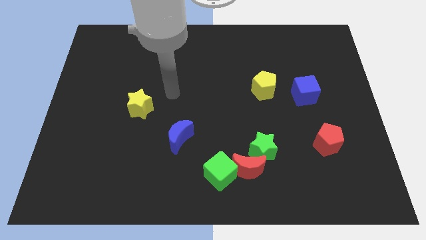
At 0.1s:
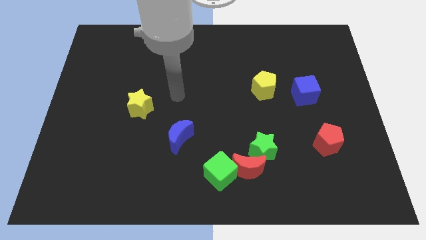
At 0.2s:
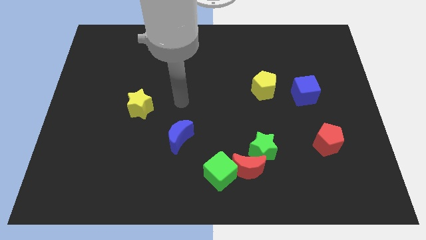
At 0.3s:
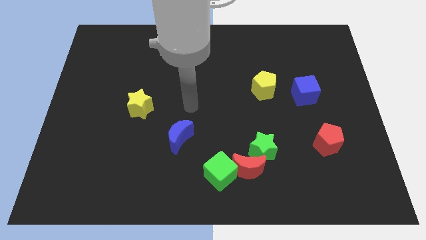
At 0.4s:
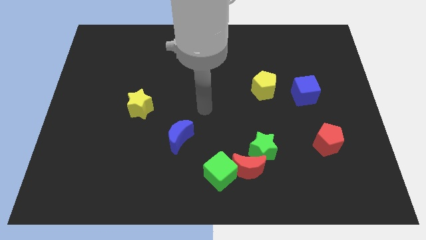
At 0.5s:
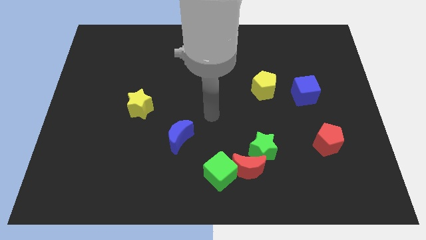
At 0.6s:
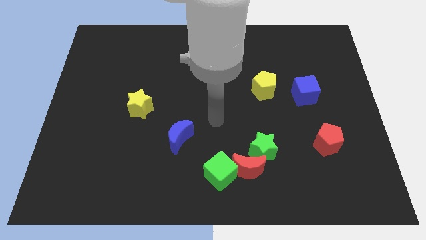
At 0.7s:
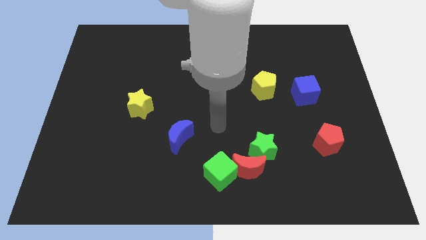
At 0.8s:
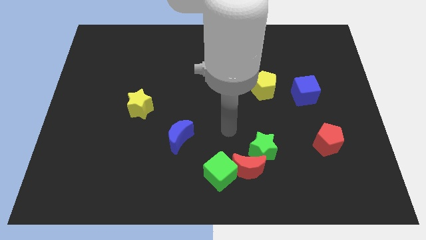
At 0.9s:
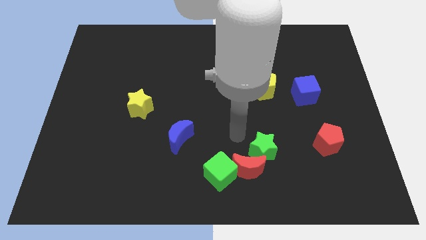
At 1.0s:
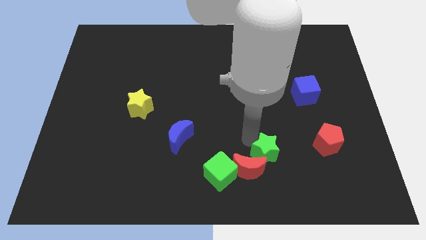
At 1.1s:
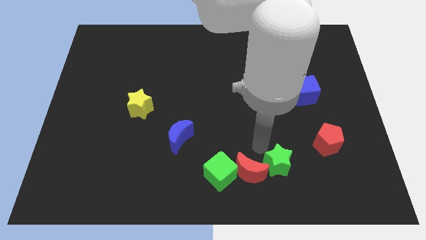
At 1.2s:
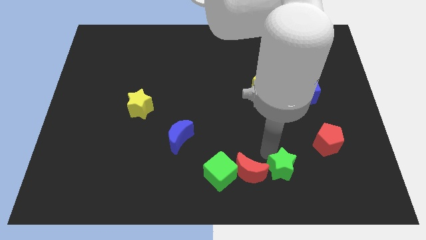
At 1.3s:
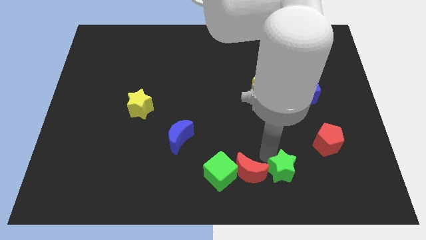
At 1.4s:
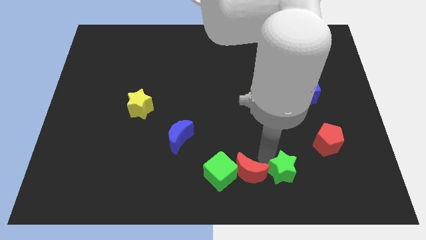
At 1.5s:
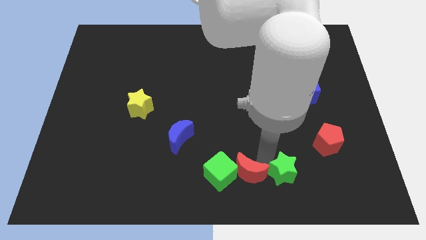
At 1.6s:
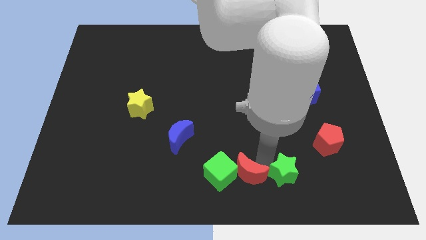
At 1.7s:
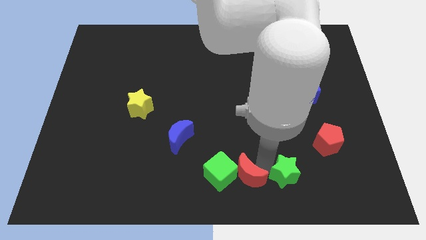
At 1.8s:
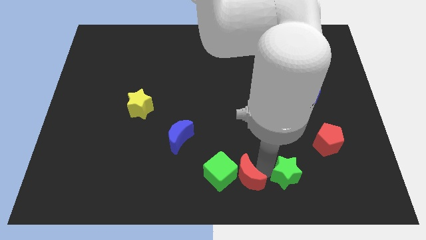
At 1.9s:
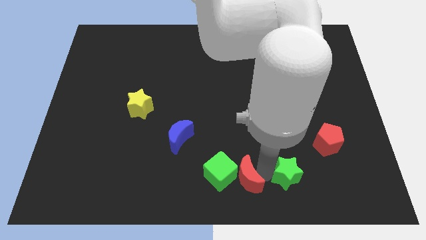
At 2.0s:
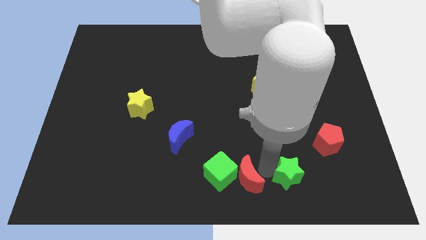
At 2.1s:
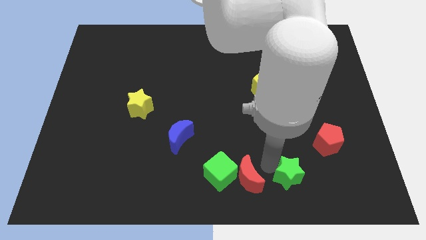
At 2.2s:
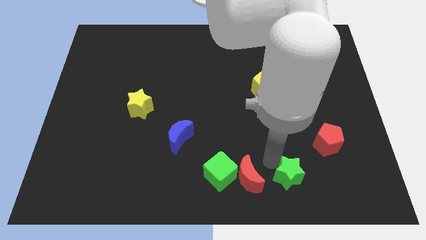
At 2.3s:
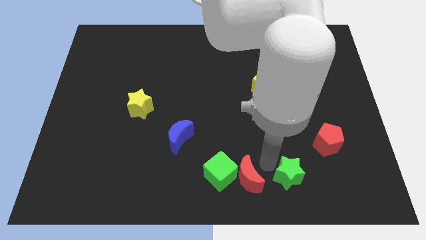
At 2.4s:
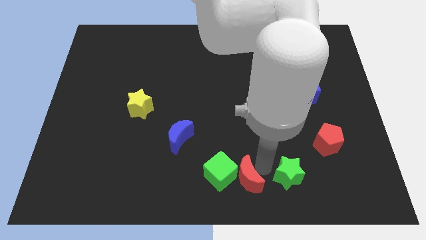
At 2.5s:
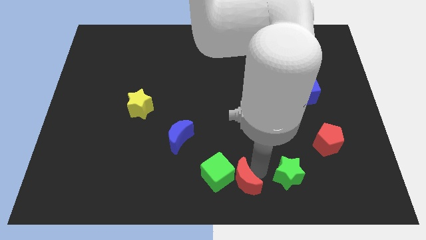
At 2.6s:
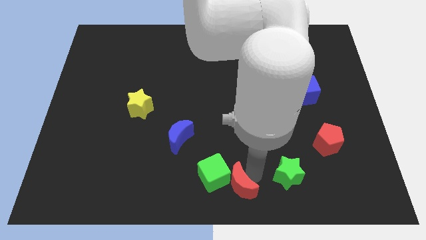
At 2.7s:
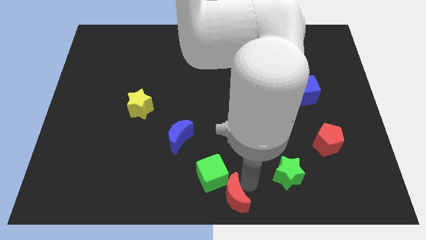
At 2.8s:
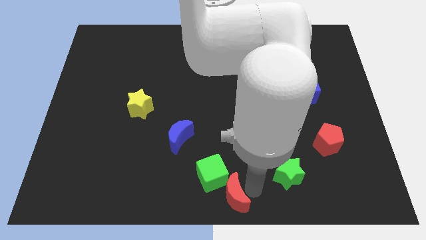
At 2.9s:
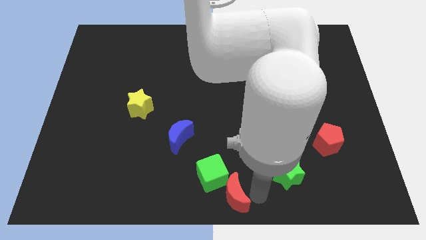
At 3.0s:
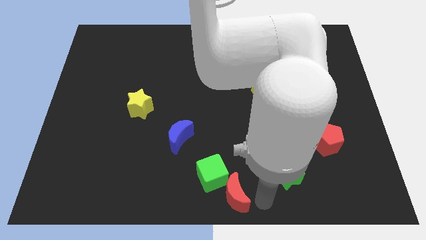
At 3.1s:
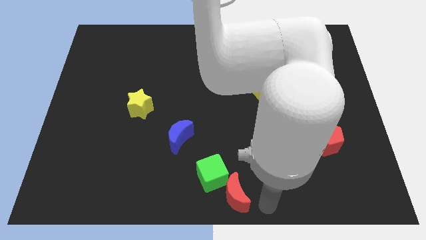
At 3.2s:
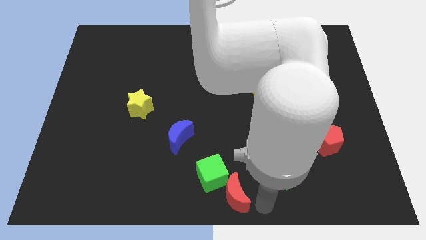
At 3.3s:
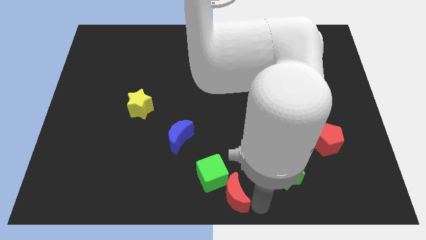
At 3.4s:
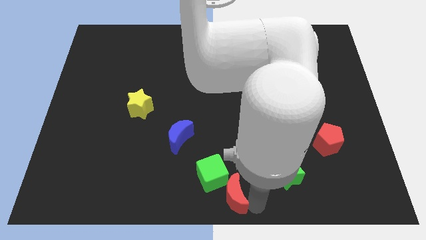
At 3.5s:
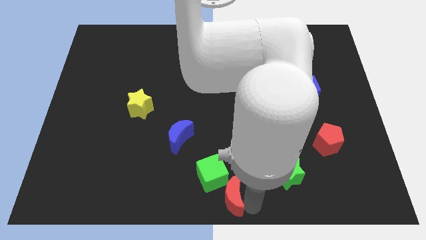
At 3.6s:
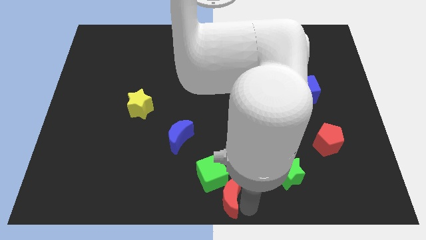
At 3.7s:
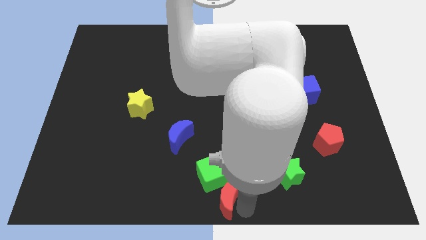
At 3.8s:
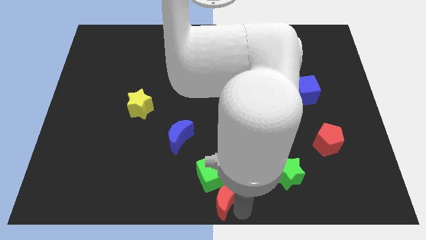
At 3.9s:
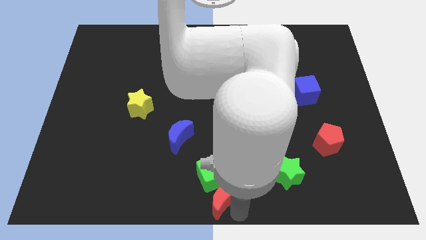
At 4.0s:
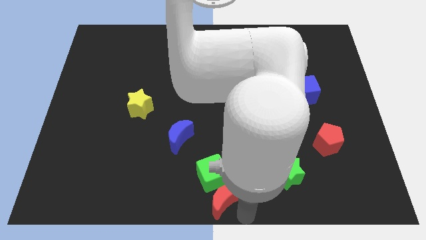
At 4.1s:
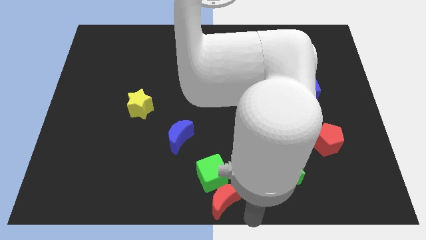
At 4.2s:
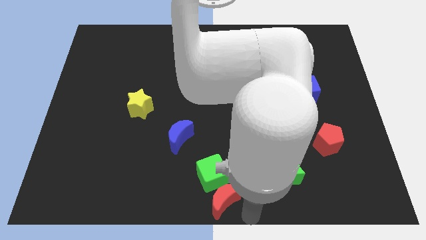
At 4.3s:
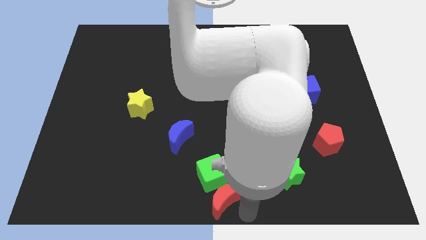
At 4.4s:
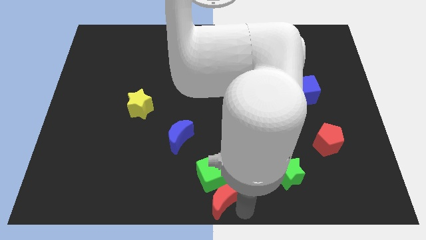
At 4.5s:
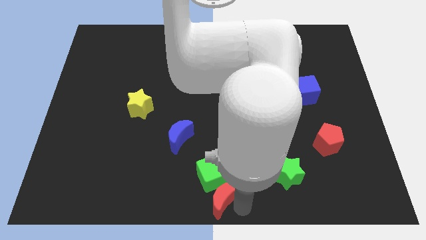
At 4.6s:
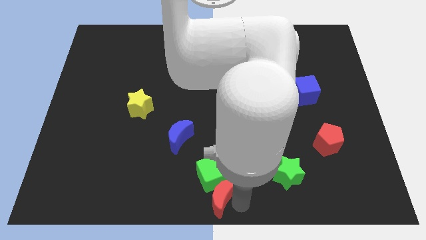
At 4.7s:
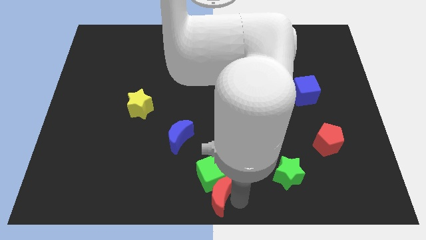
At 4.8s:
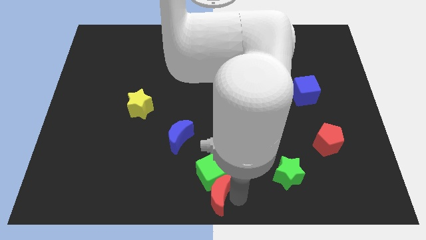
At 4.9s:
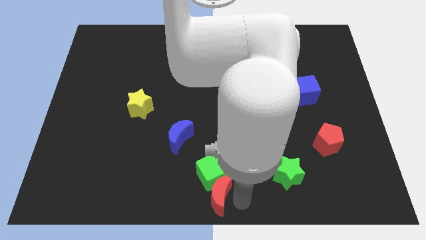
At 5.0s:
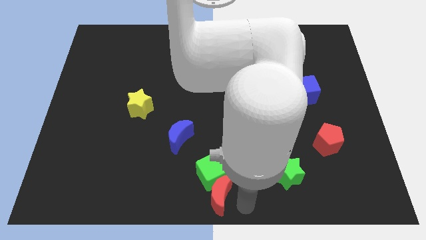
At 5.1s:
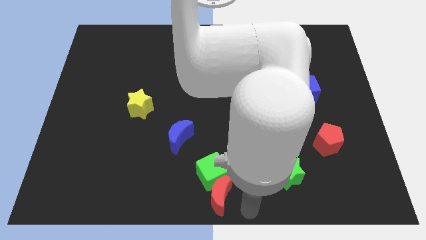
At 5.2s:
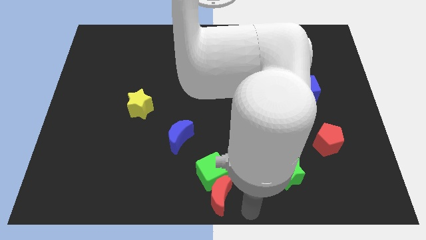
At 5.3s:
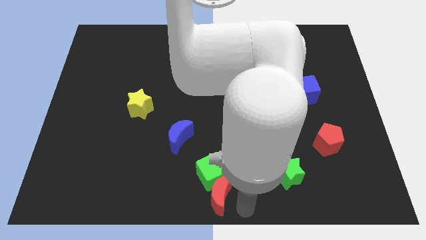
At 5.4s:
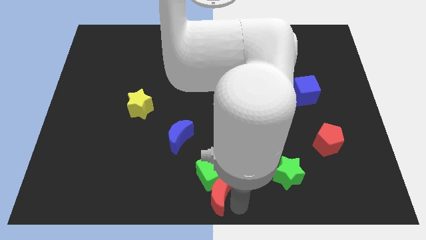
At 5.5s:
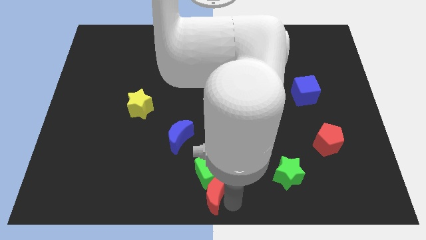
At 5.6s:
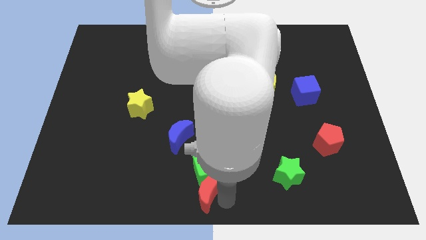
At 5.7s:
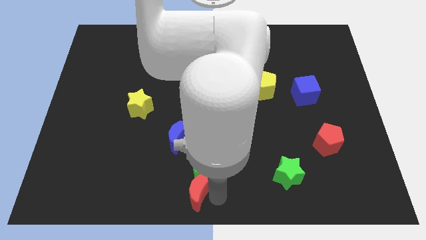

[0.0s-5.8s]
move the red moon to the bottom of the blue moon

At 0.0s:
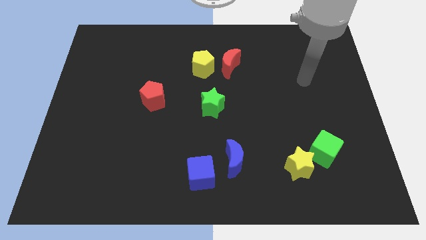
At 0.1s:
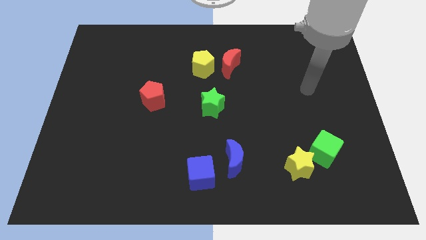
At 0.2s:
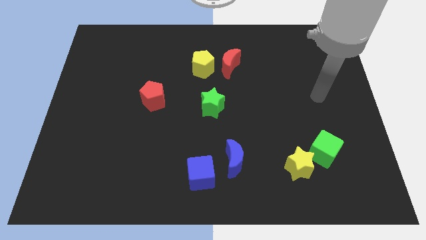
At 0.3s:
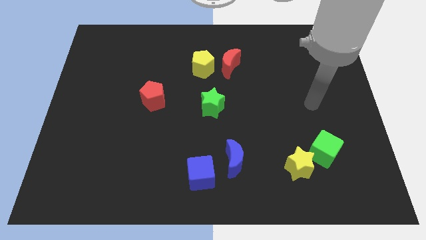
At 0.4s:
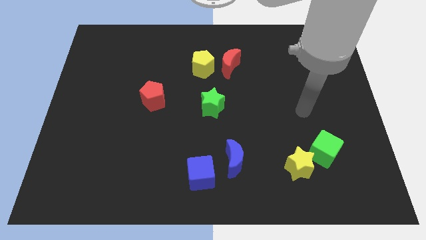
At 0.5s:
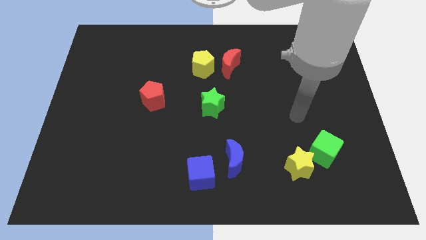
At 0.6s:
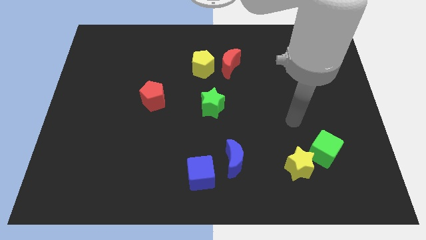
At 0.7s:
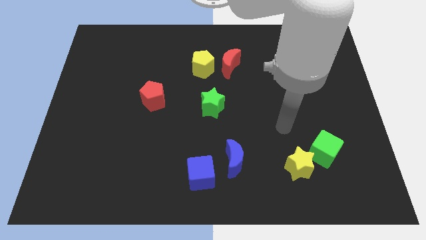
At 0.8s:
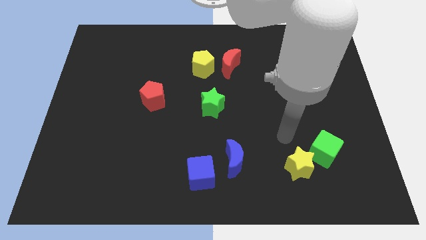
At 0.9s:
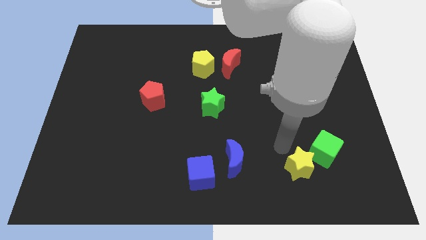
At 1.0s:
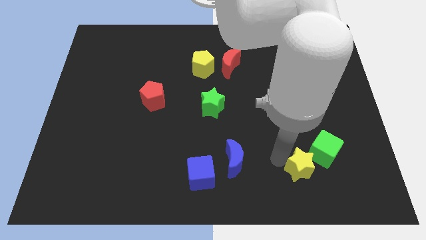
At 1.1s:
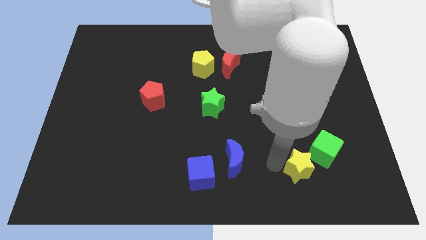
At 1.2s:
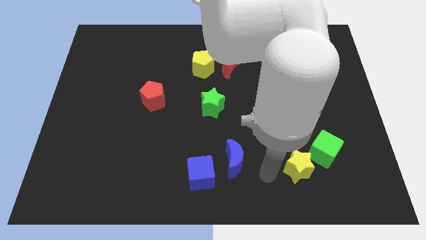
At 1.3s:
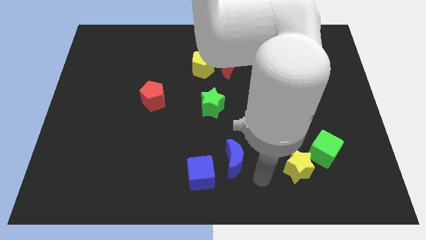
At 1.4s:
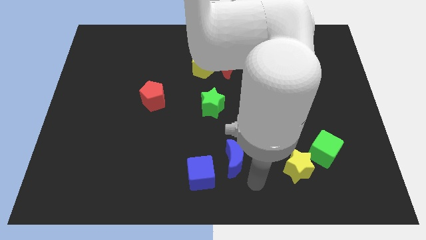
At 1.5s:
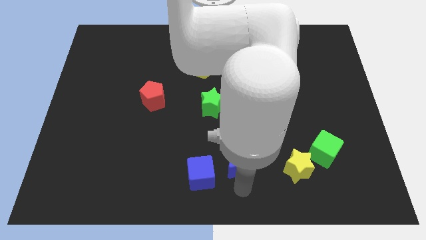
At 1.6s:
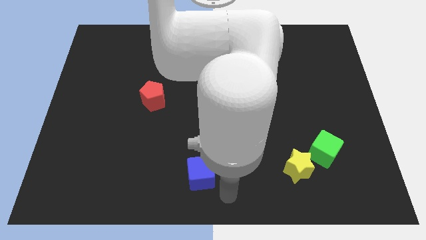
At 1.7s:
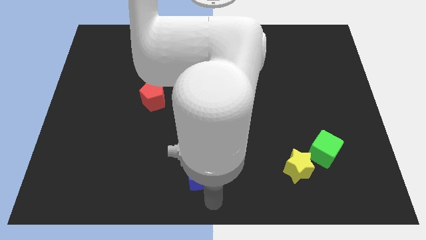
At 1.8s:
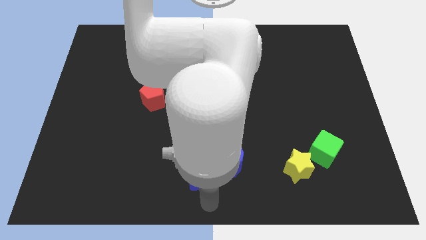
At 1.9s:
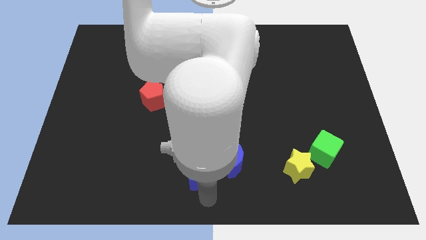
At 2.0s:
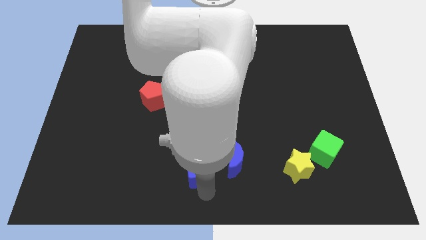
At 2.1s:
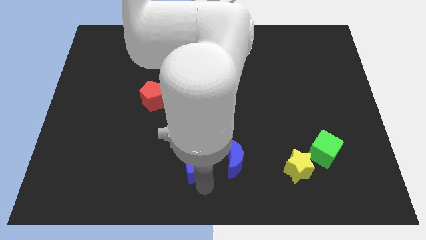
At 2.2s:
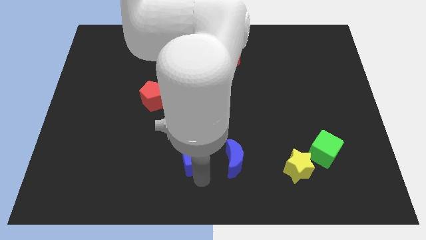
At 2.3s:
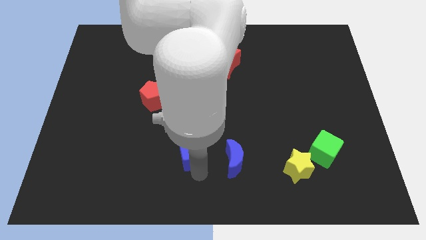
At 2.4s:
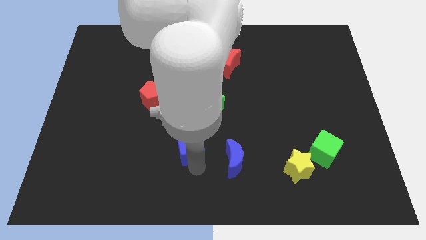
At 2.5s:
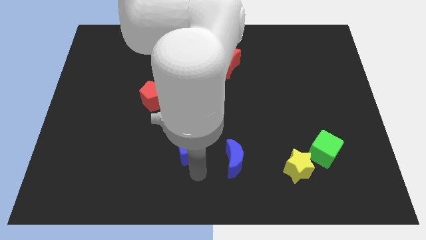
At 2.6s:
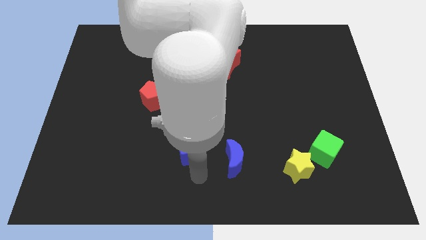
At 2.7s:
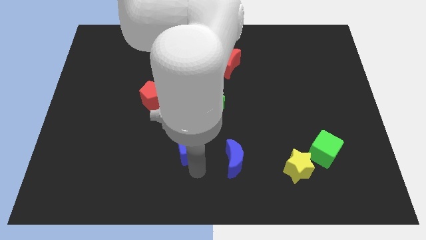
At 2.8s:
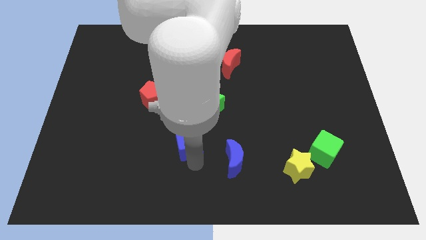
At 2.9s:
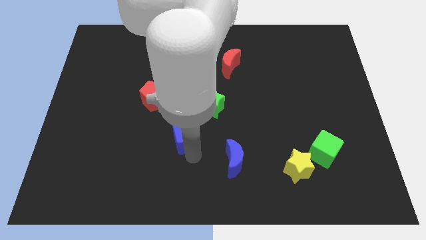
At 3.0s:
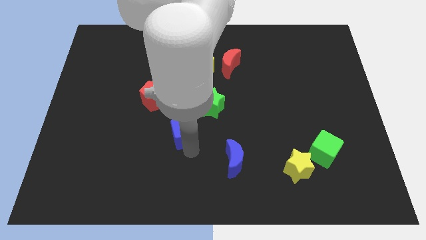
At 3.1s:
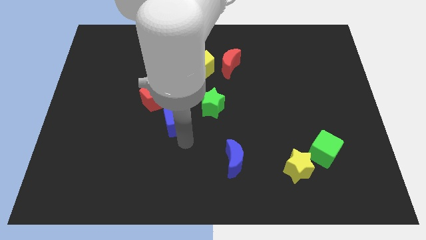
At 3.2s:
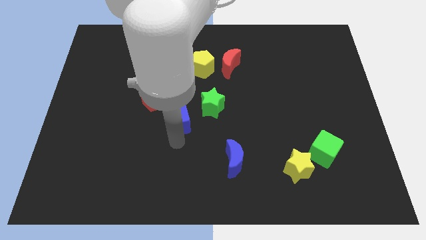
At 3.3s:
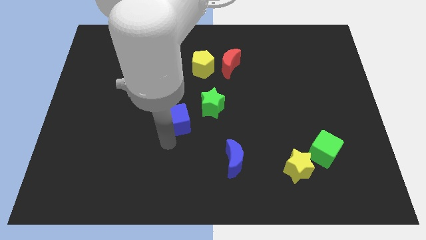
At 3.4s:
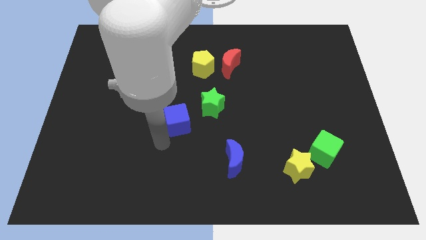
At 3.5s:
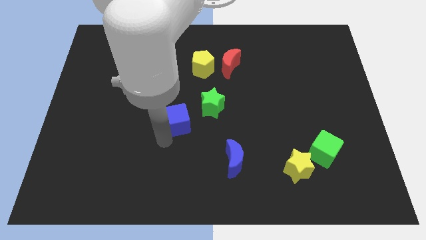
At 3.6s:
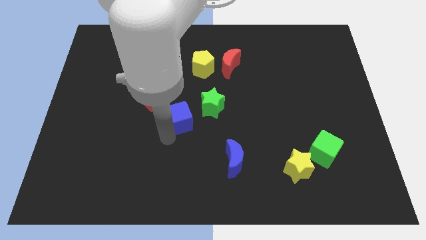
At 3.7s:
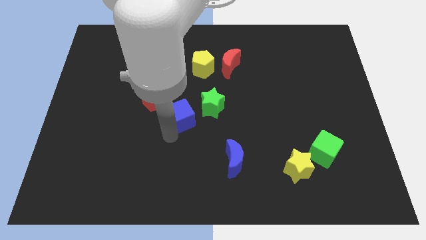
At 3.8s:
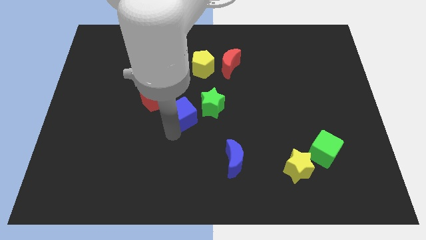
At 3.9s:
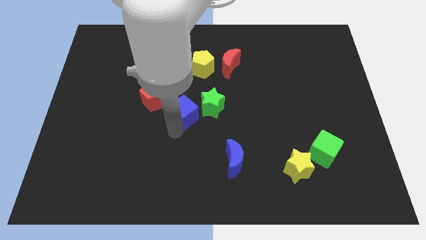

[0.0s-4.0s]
move the blue cube just right of the red pentagon
